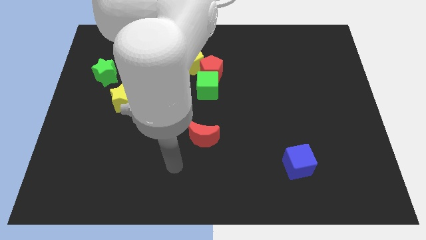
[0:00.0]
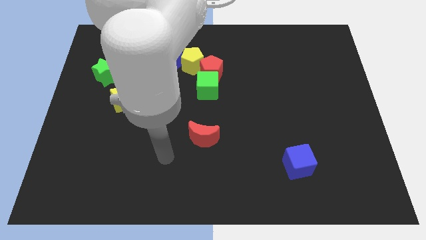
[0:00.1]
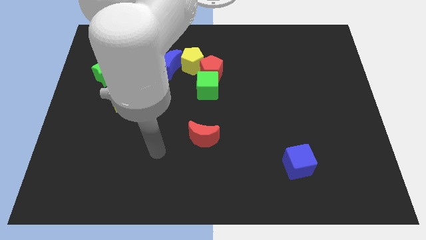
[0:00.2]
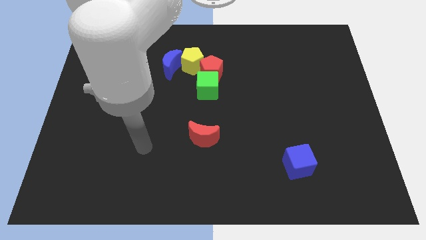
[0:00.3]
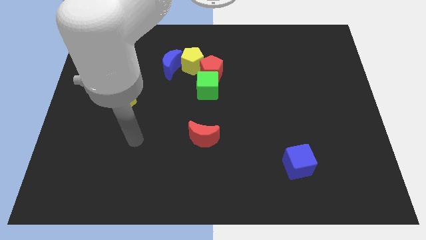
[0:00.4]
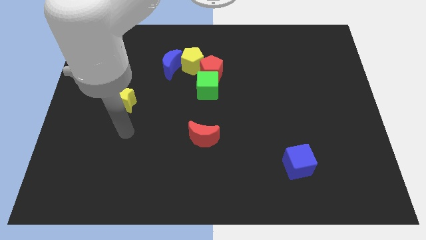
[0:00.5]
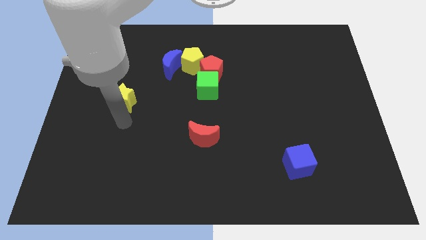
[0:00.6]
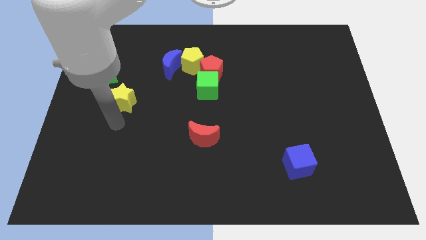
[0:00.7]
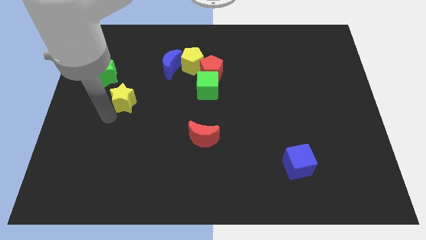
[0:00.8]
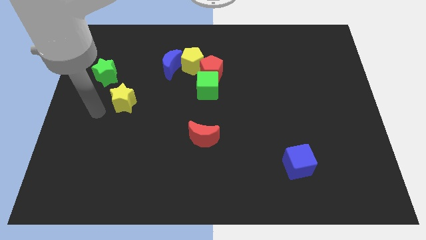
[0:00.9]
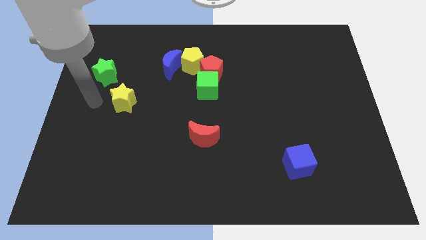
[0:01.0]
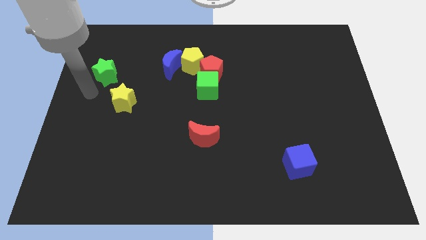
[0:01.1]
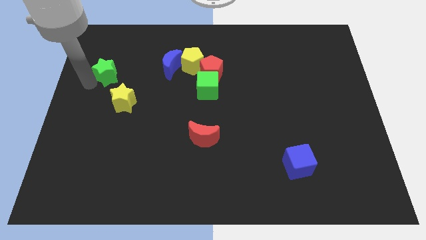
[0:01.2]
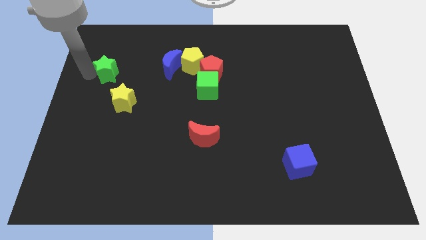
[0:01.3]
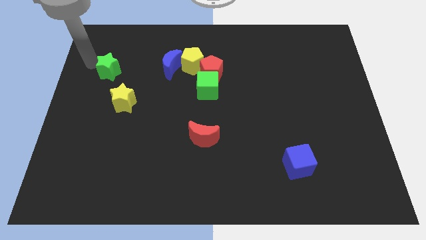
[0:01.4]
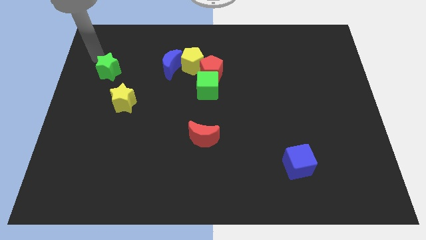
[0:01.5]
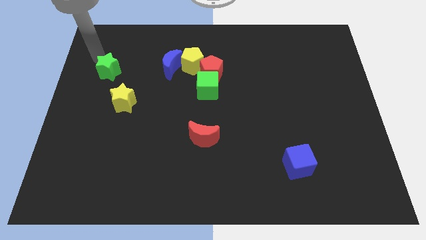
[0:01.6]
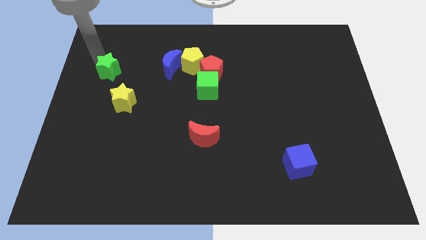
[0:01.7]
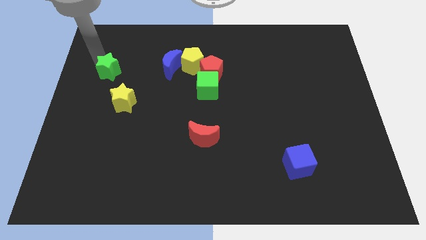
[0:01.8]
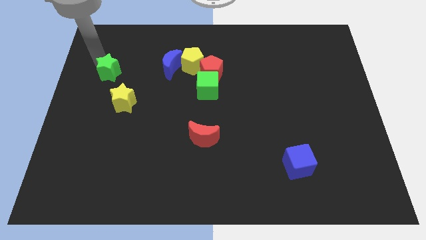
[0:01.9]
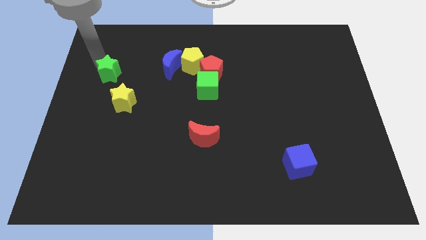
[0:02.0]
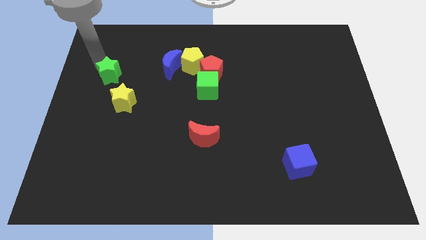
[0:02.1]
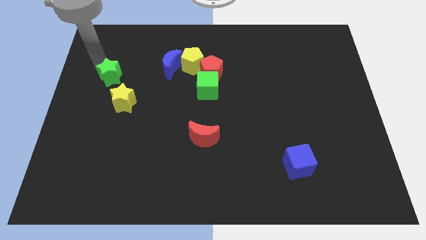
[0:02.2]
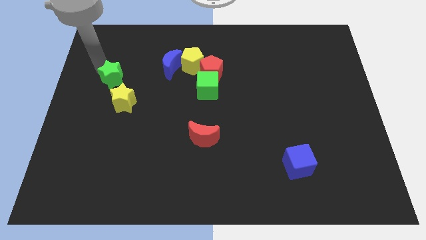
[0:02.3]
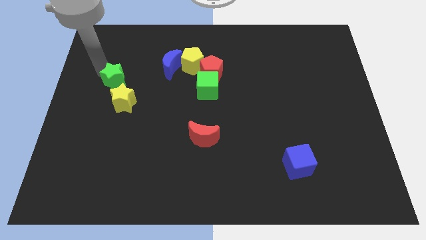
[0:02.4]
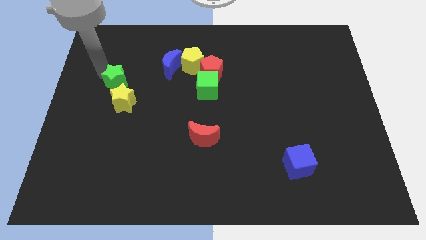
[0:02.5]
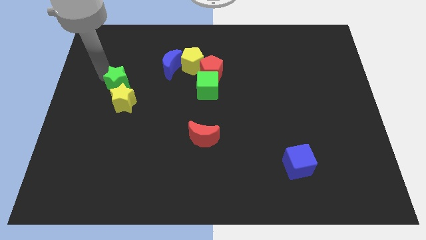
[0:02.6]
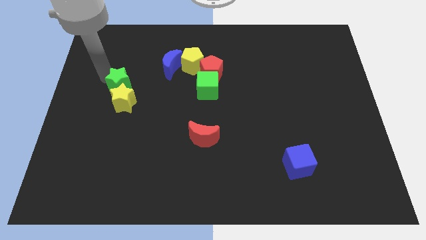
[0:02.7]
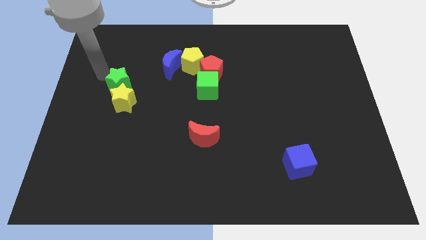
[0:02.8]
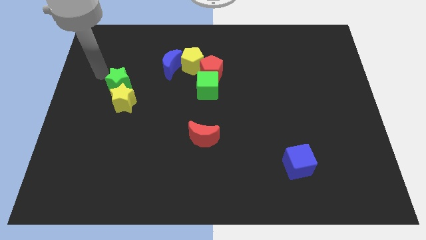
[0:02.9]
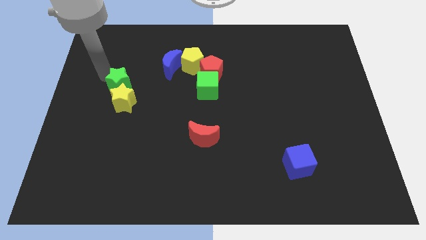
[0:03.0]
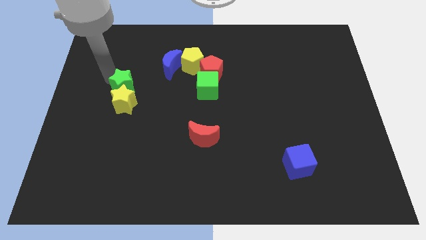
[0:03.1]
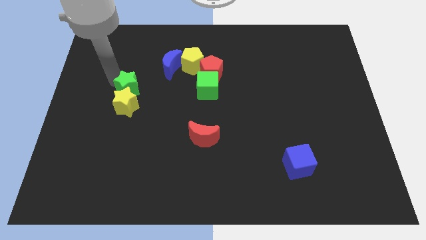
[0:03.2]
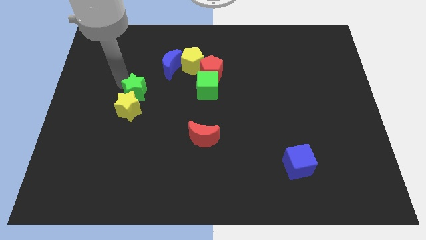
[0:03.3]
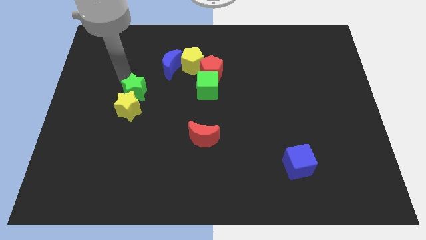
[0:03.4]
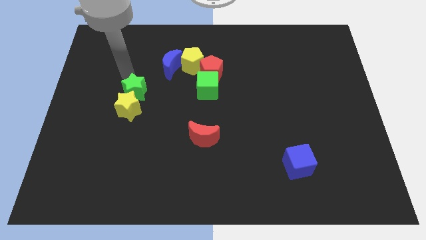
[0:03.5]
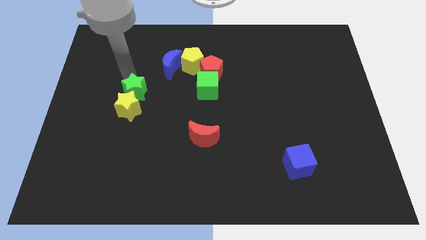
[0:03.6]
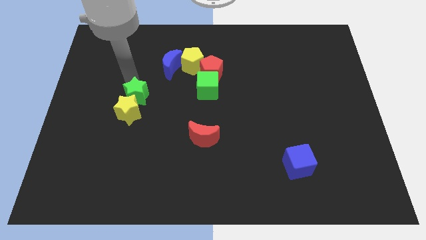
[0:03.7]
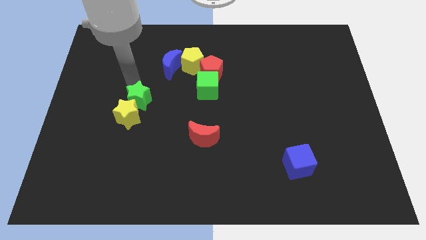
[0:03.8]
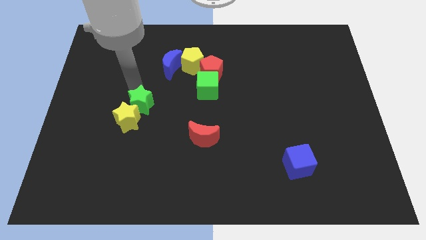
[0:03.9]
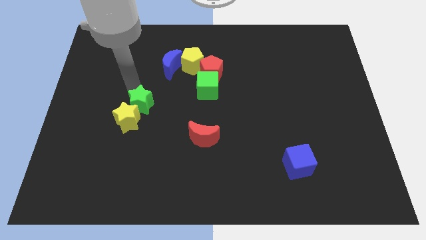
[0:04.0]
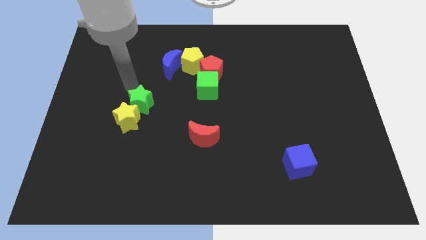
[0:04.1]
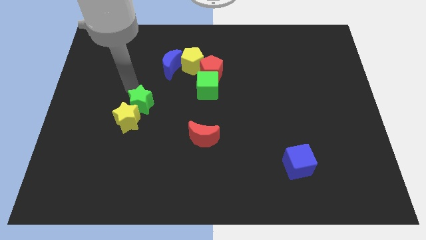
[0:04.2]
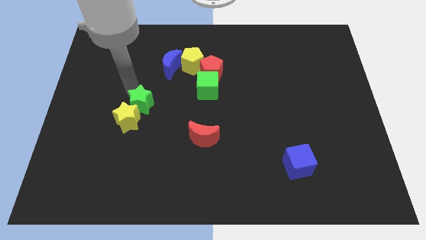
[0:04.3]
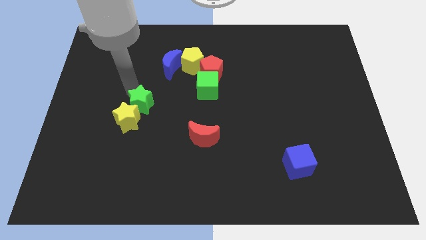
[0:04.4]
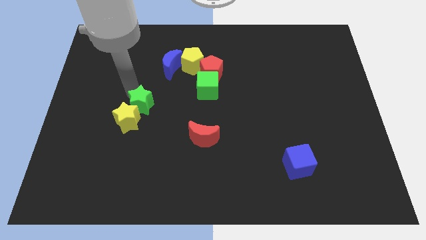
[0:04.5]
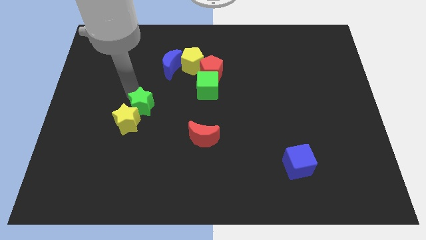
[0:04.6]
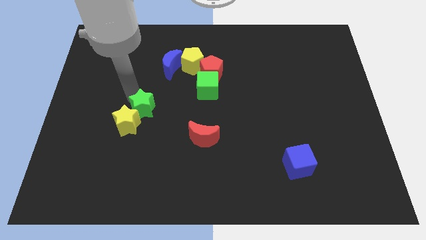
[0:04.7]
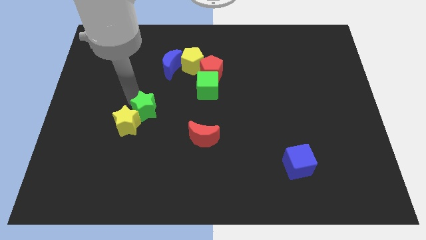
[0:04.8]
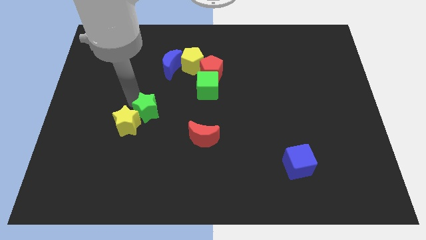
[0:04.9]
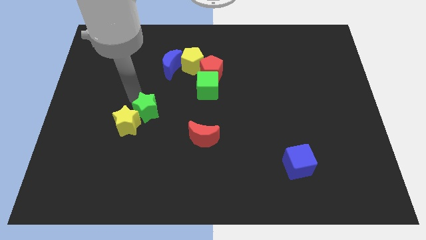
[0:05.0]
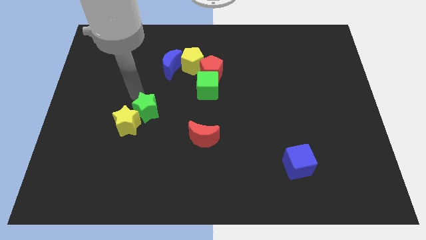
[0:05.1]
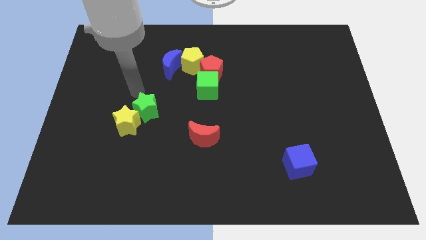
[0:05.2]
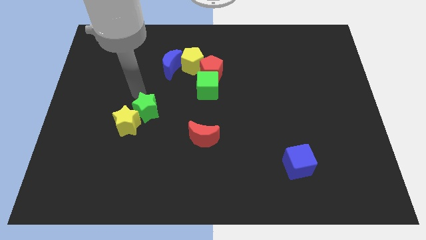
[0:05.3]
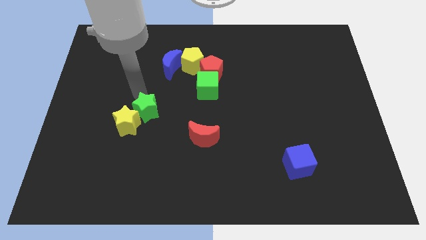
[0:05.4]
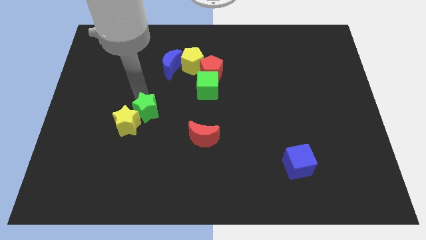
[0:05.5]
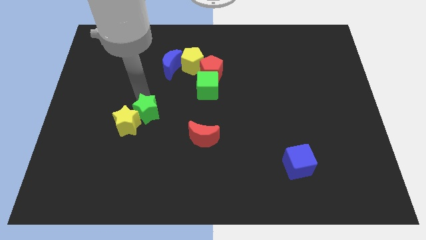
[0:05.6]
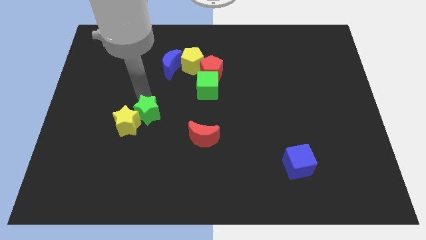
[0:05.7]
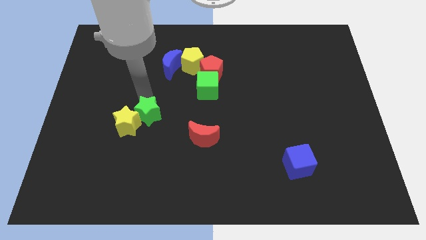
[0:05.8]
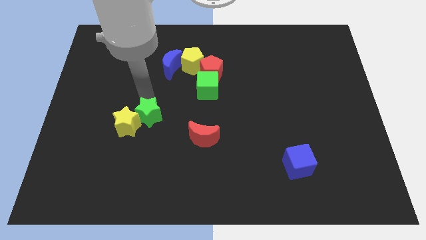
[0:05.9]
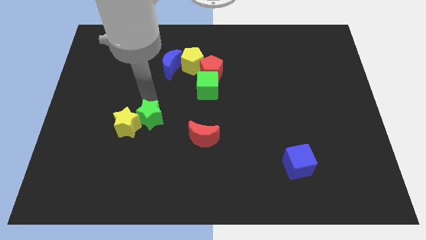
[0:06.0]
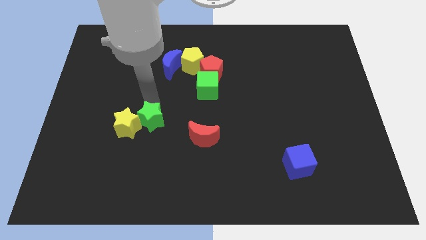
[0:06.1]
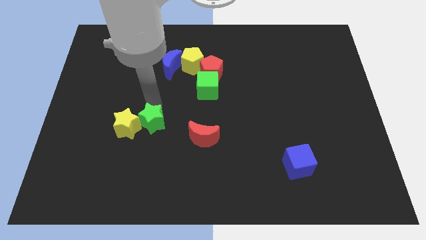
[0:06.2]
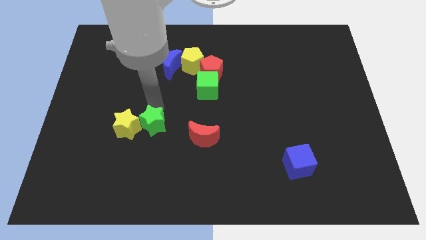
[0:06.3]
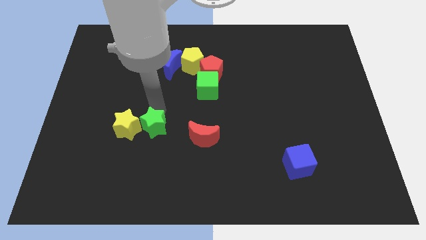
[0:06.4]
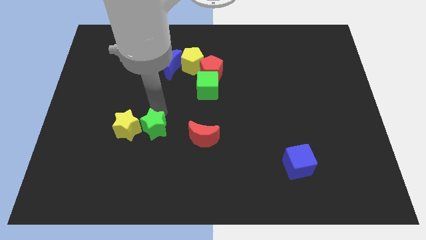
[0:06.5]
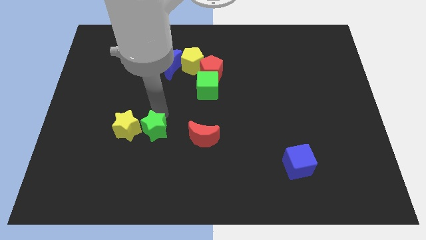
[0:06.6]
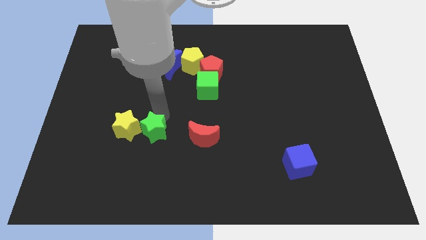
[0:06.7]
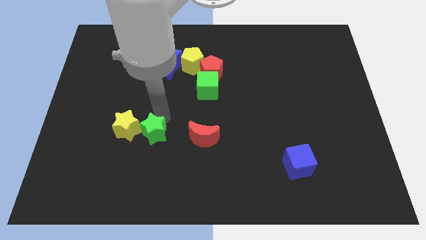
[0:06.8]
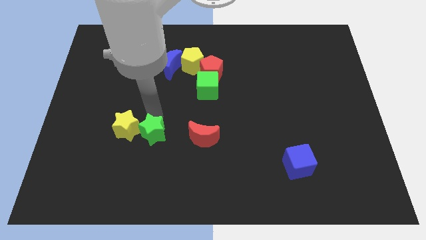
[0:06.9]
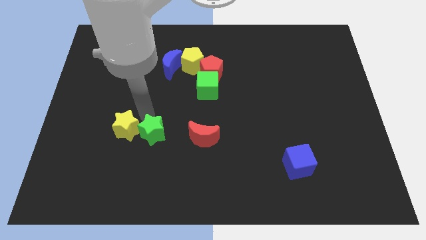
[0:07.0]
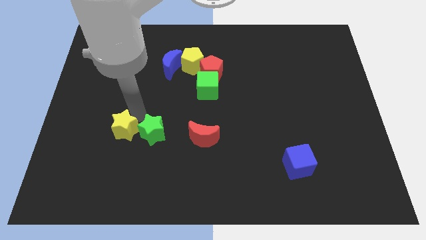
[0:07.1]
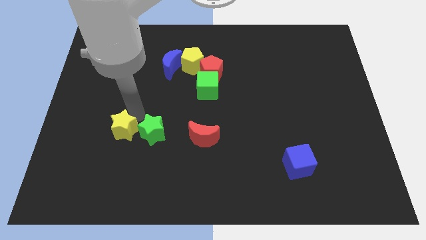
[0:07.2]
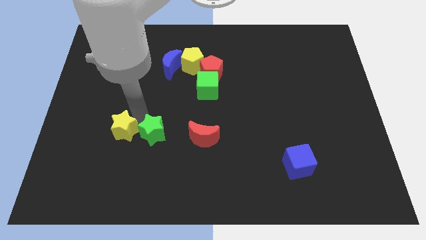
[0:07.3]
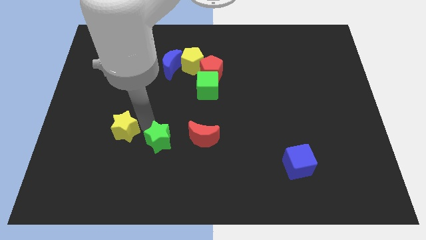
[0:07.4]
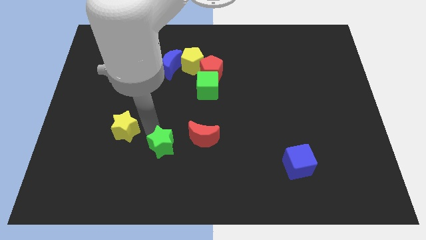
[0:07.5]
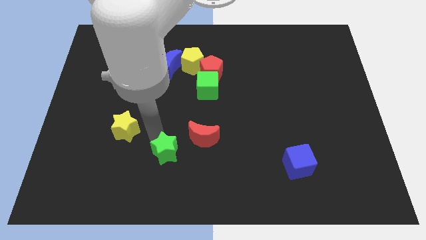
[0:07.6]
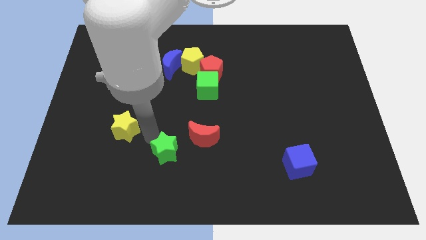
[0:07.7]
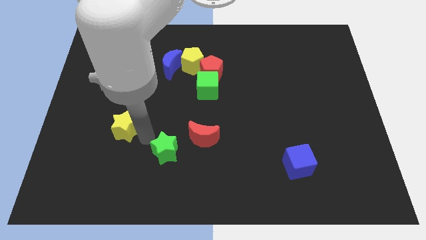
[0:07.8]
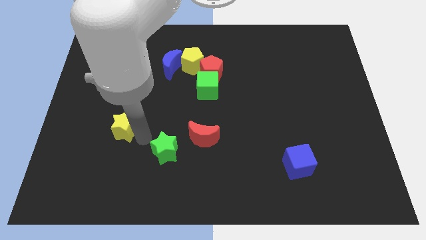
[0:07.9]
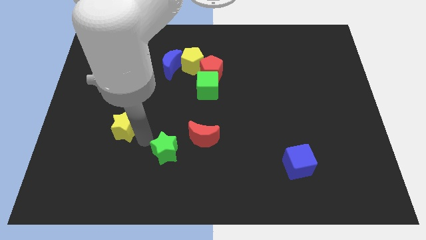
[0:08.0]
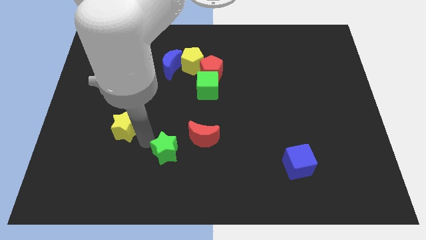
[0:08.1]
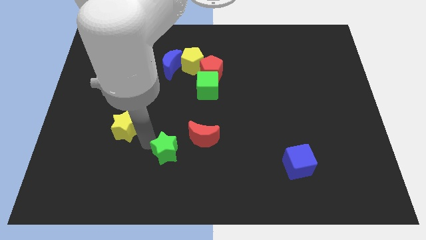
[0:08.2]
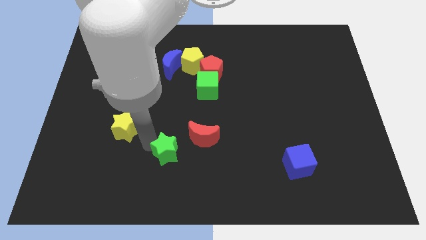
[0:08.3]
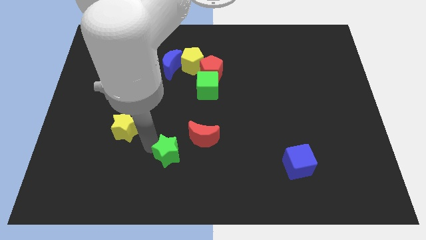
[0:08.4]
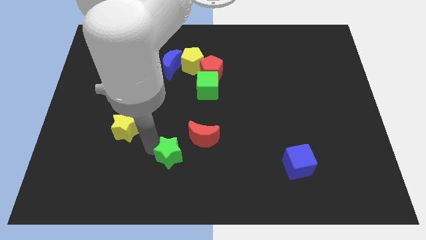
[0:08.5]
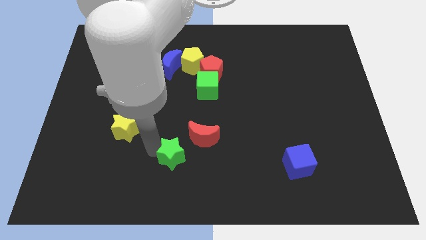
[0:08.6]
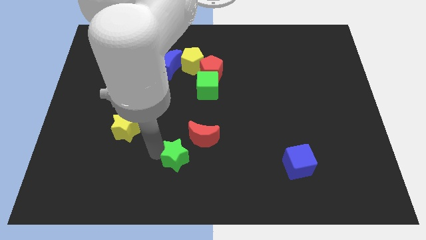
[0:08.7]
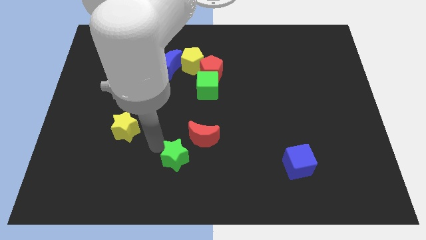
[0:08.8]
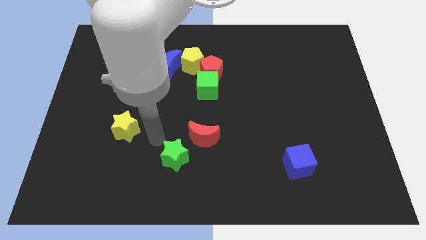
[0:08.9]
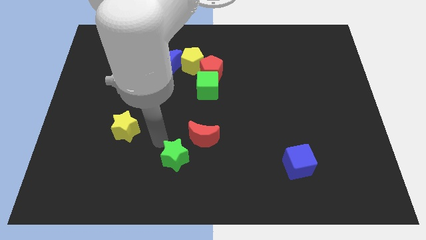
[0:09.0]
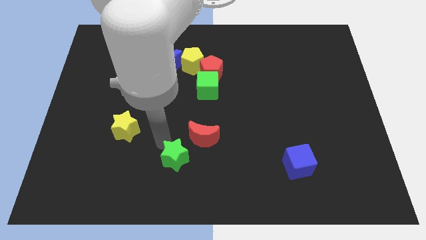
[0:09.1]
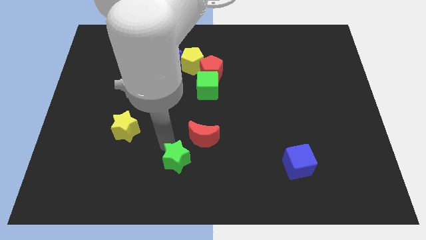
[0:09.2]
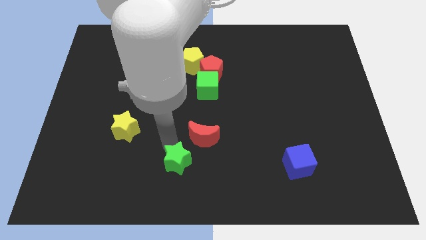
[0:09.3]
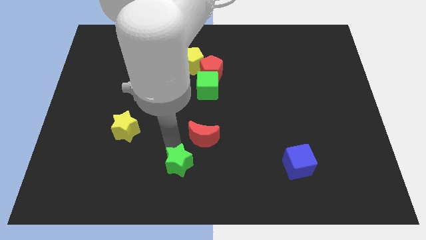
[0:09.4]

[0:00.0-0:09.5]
slide the green star to the bottom of the red moon
